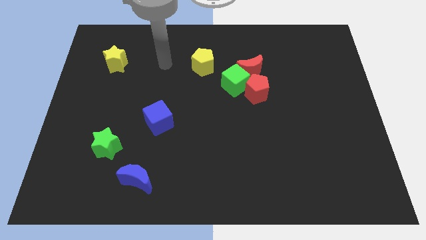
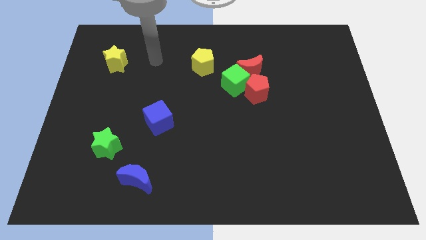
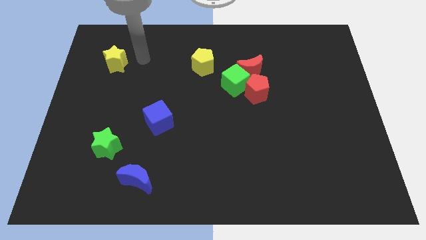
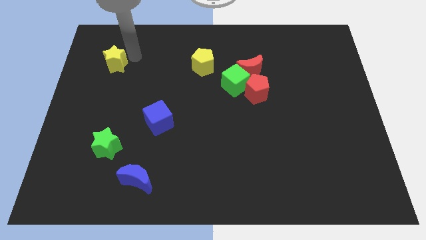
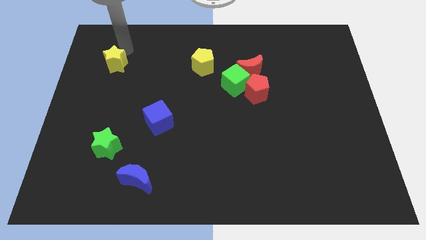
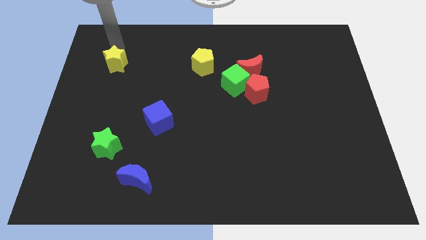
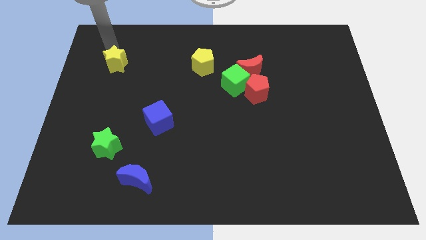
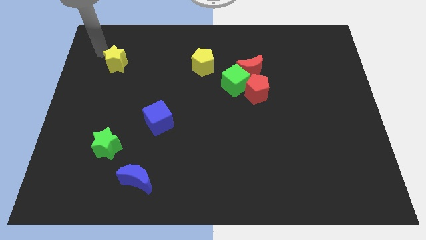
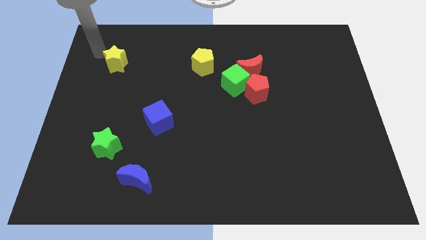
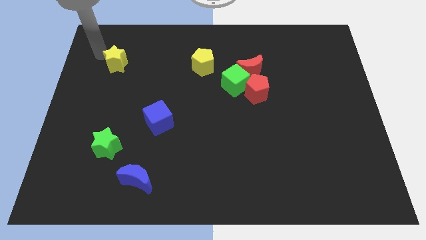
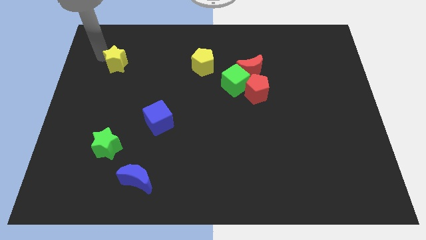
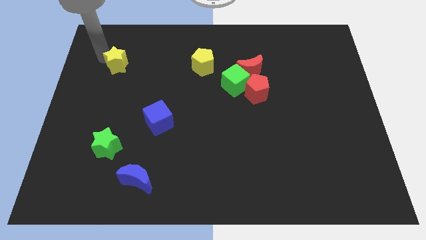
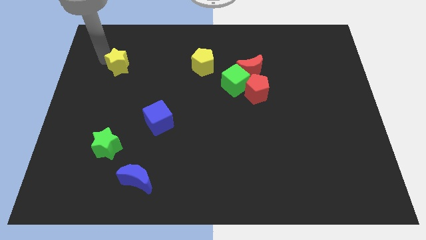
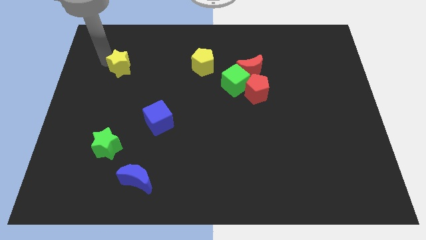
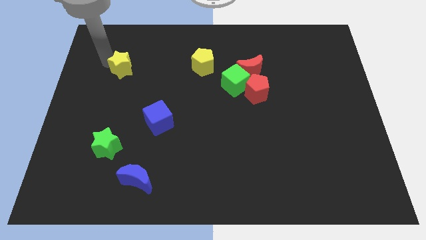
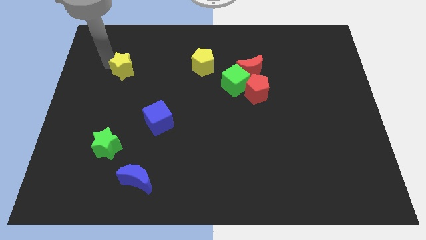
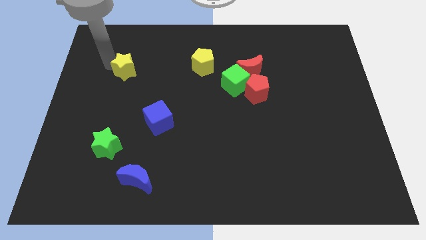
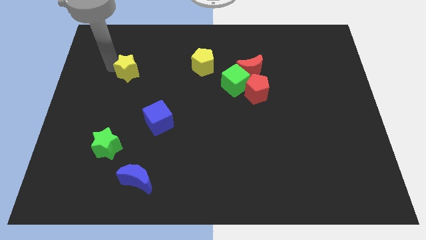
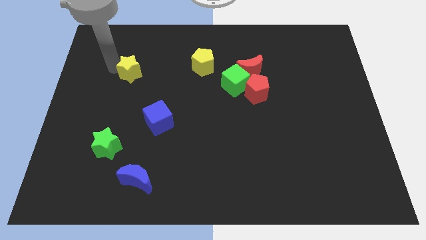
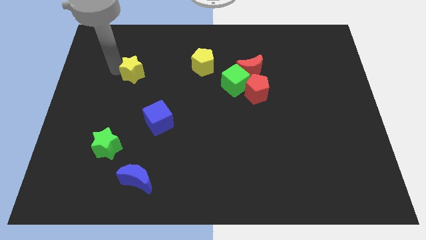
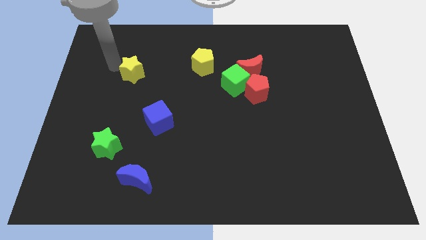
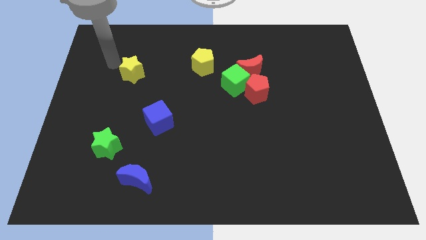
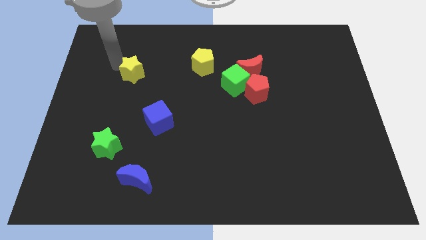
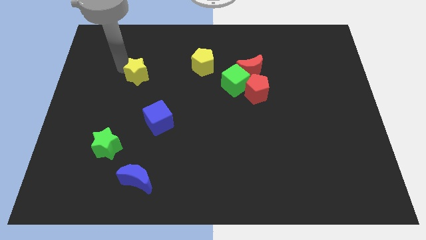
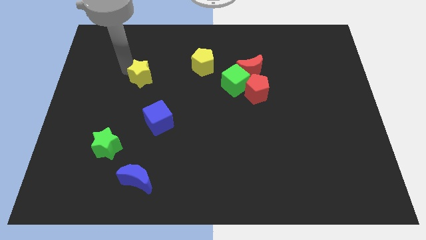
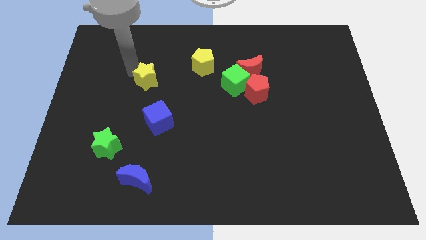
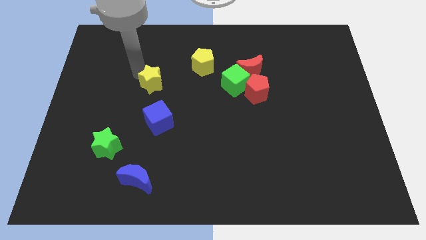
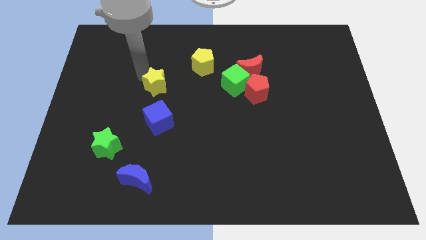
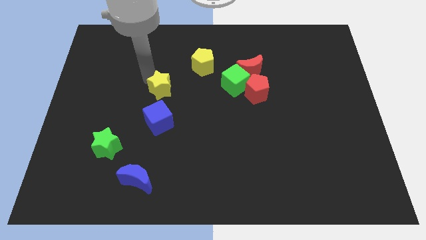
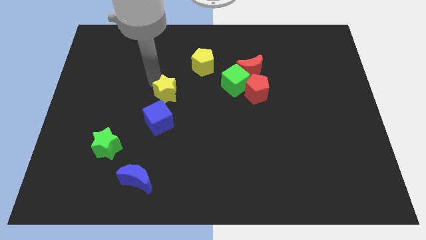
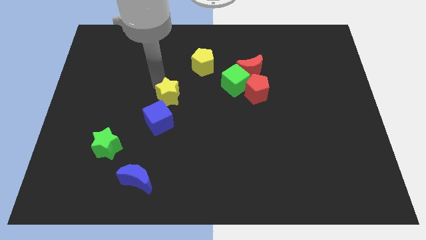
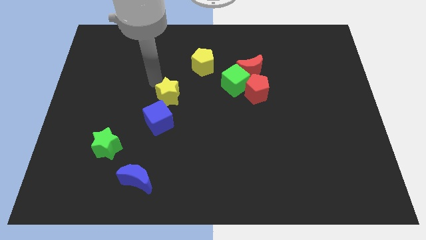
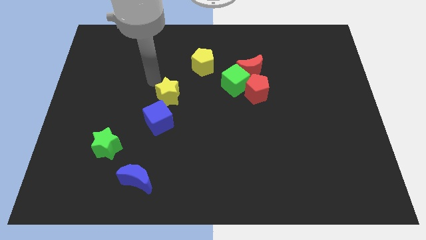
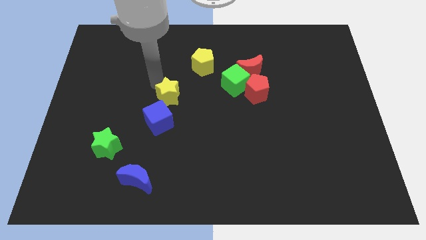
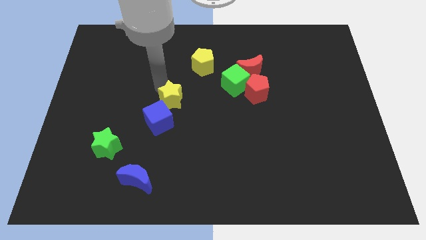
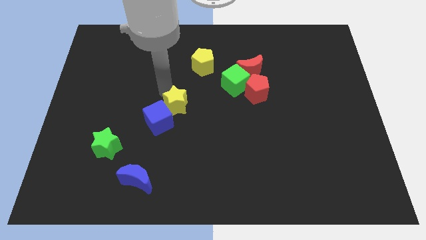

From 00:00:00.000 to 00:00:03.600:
slide the yellow star down and right diagonally

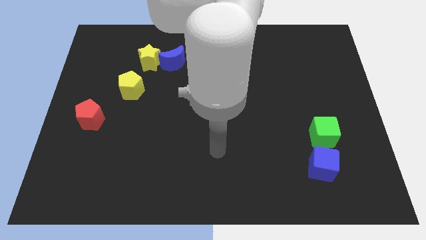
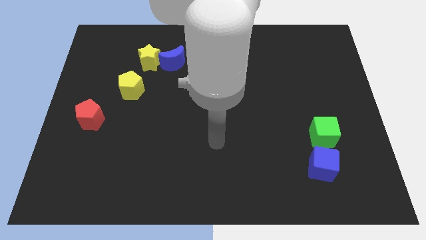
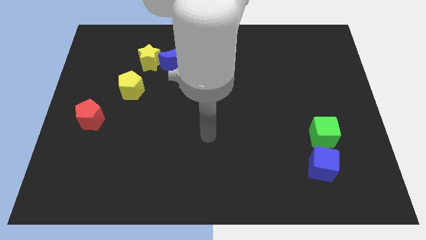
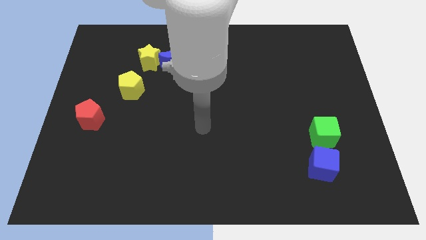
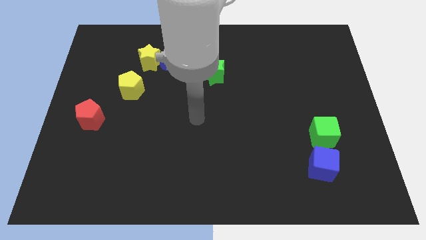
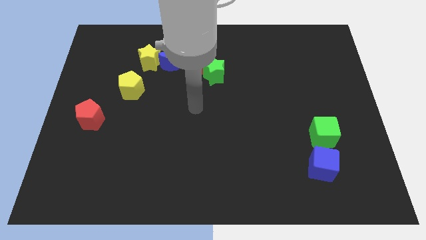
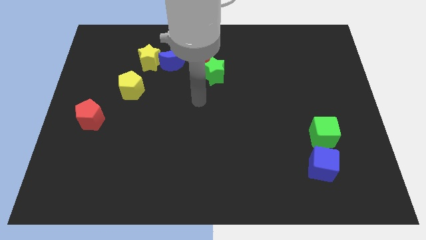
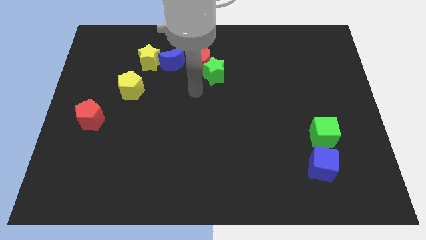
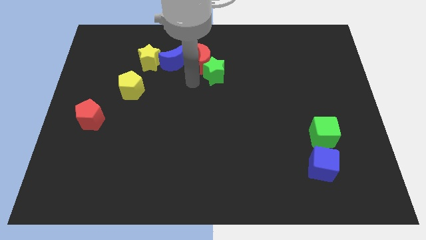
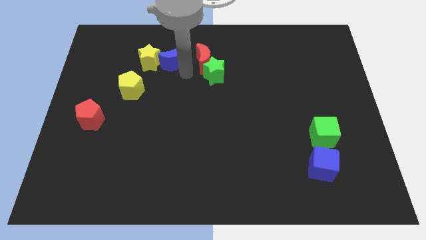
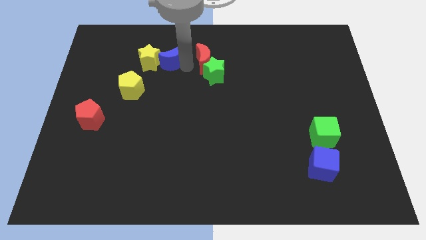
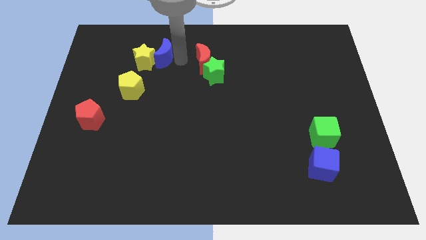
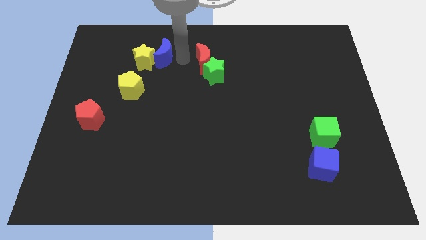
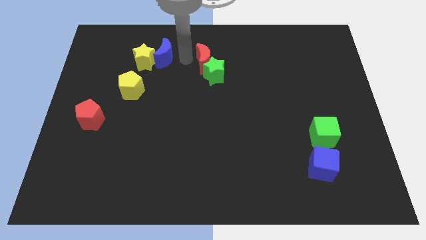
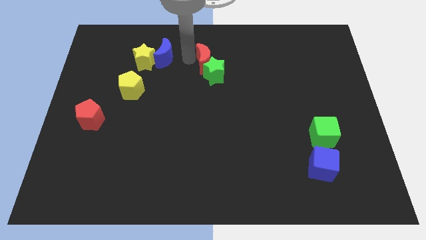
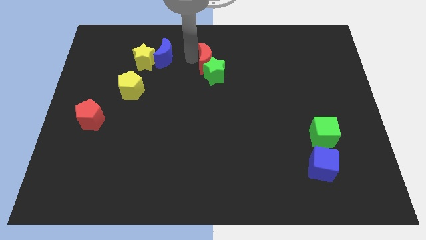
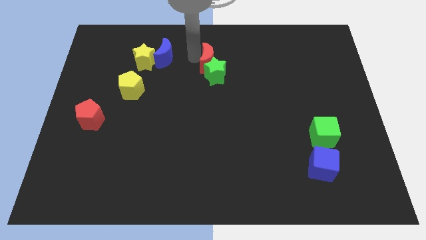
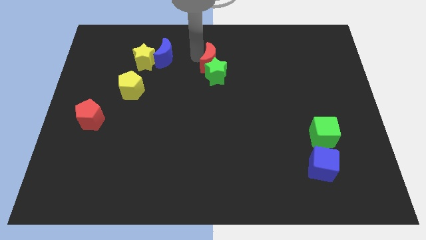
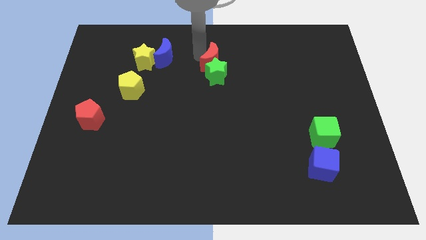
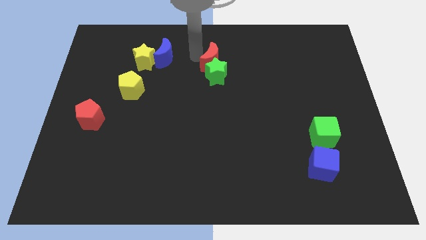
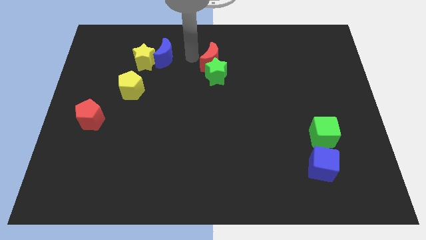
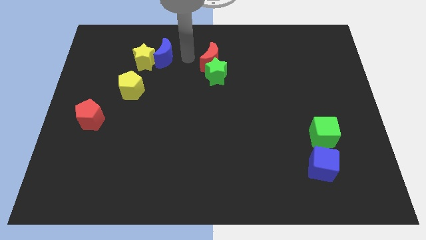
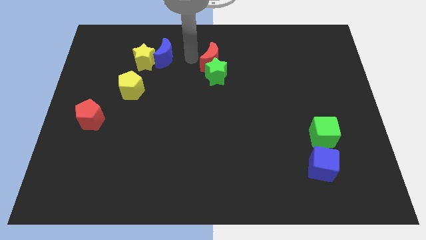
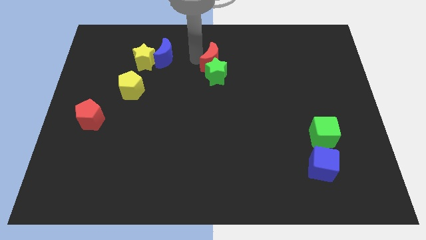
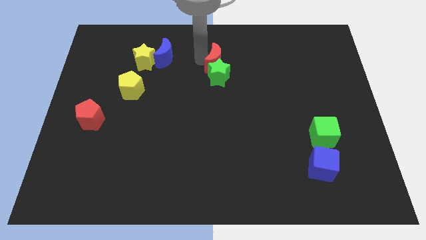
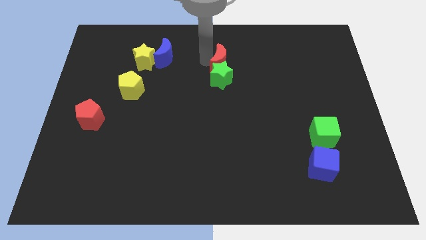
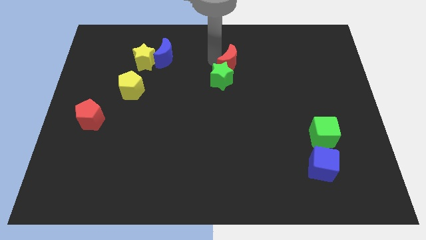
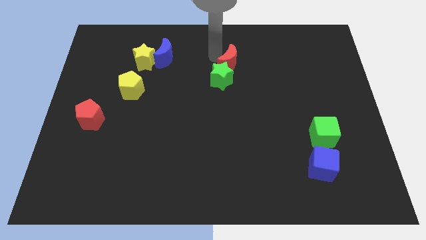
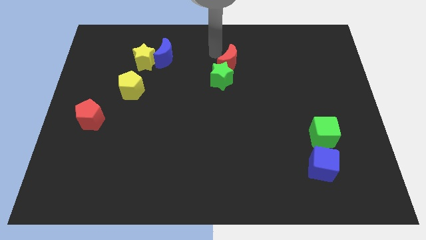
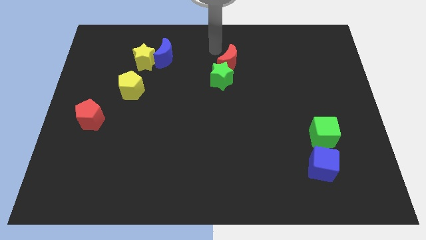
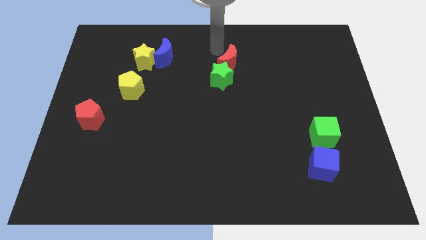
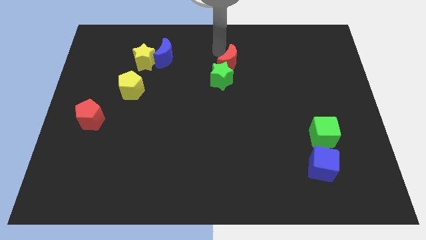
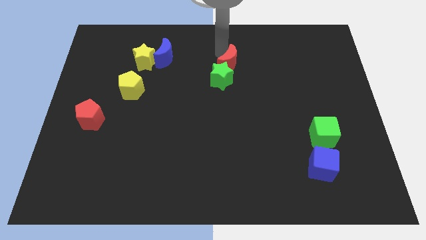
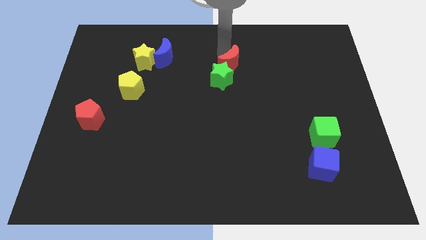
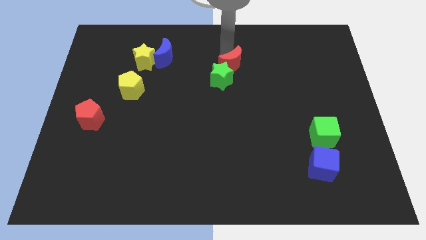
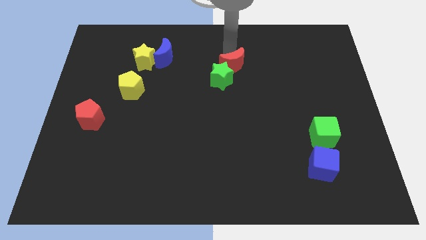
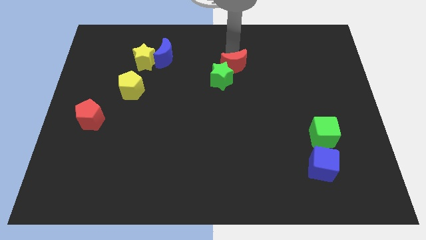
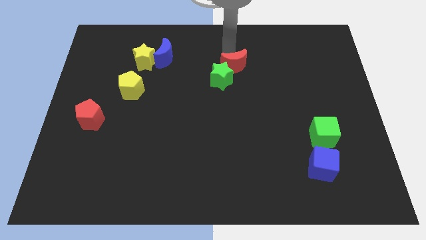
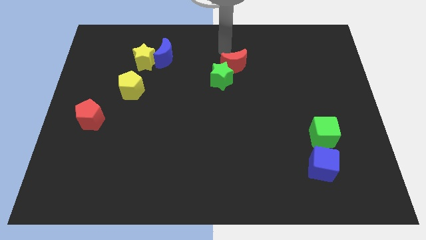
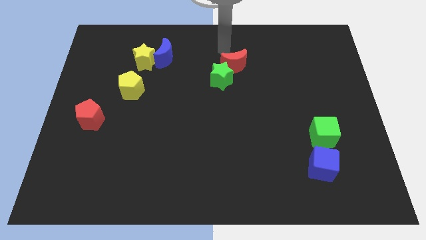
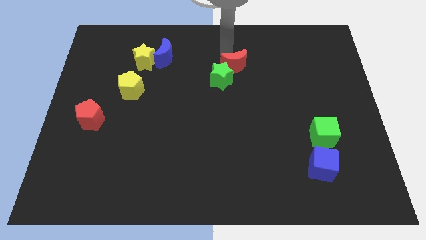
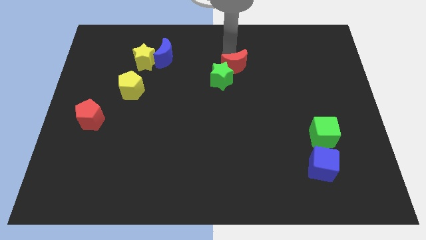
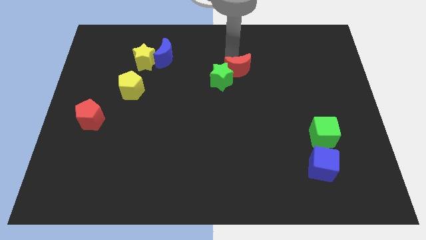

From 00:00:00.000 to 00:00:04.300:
slide the red moon a little diagonally downwards and right

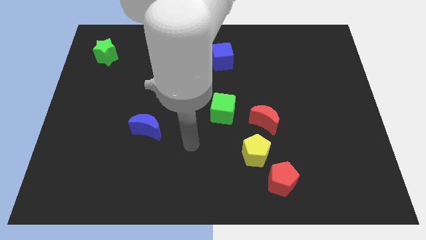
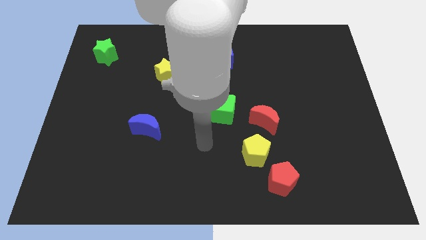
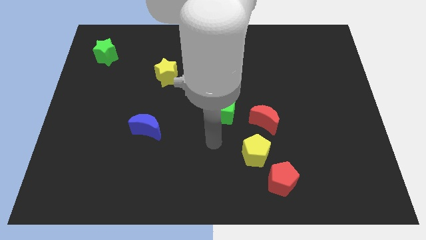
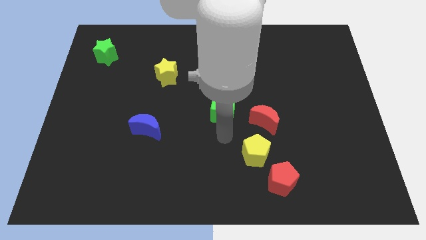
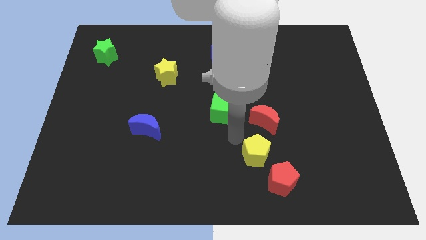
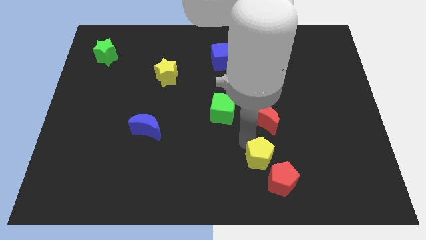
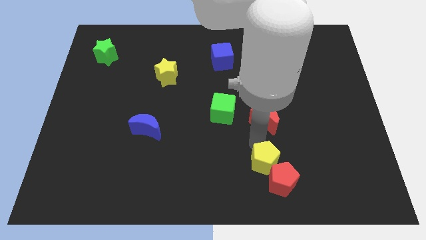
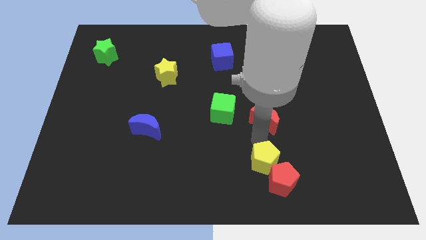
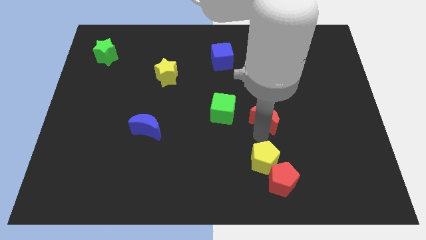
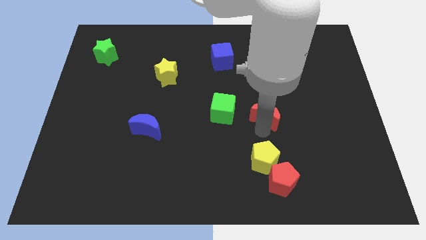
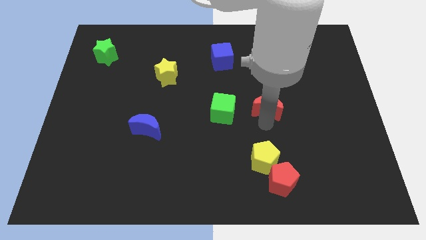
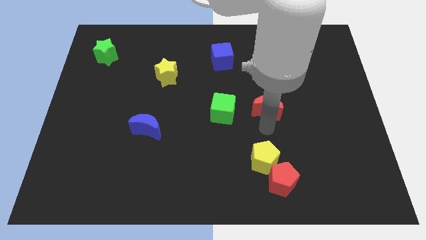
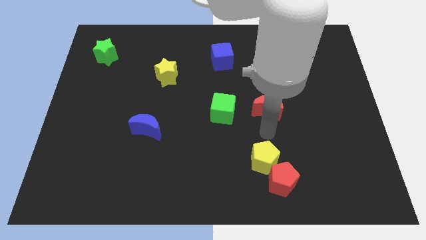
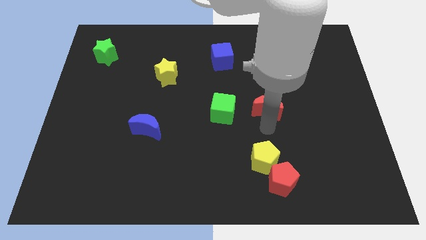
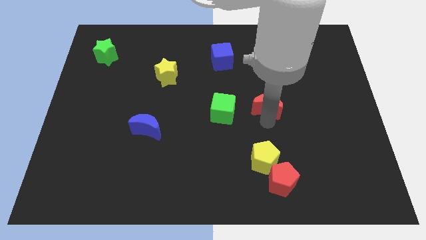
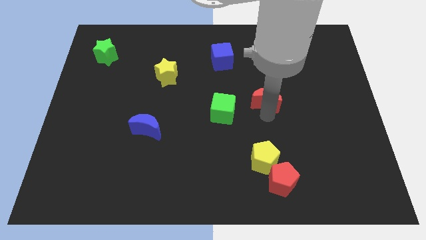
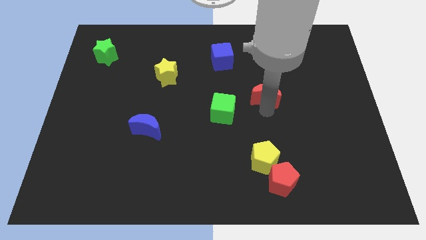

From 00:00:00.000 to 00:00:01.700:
slightly slide the red moon upwards
